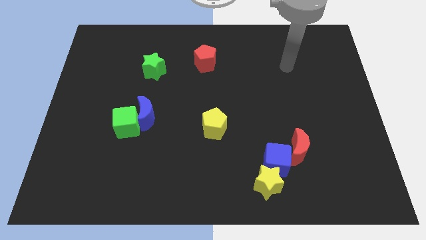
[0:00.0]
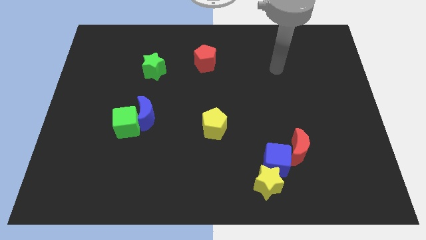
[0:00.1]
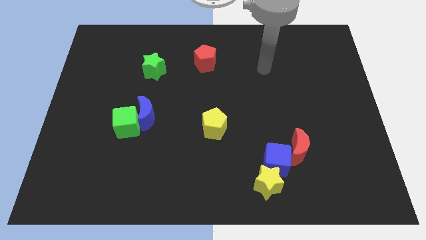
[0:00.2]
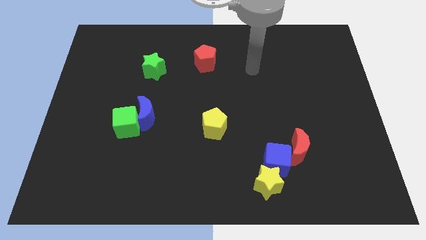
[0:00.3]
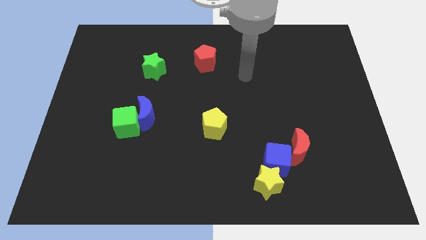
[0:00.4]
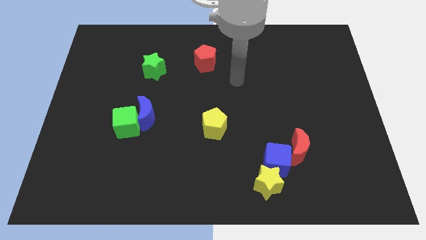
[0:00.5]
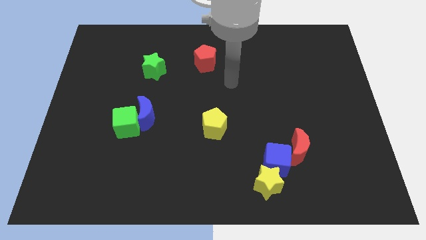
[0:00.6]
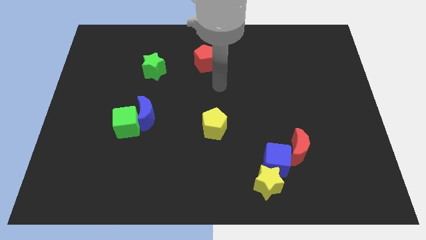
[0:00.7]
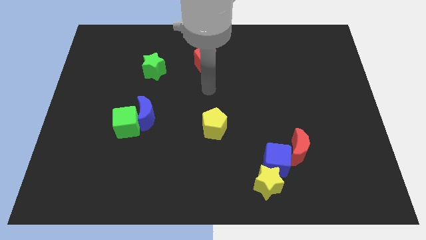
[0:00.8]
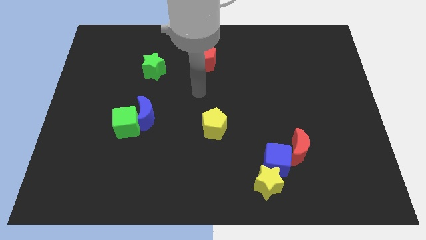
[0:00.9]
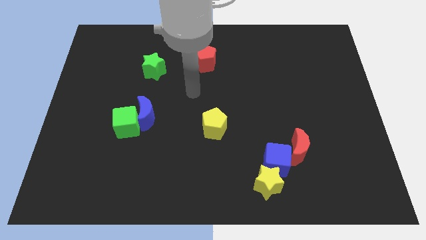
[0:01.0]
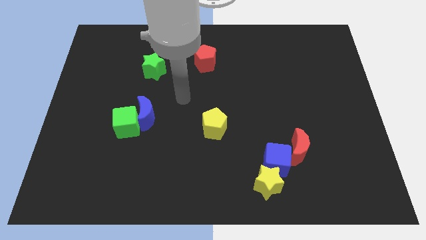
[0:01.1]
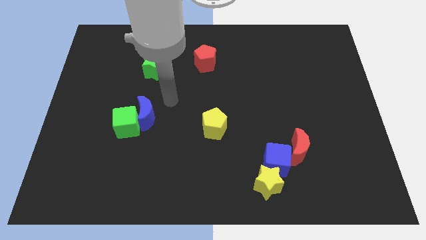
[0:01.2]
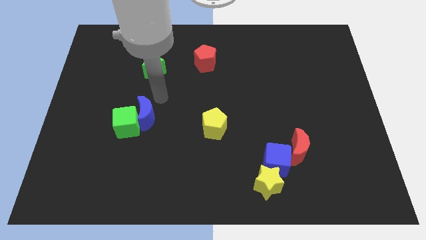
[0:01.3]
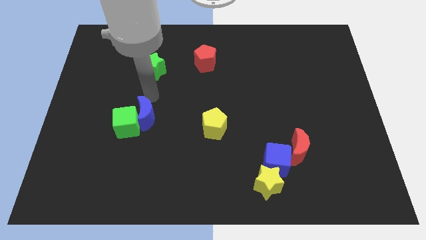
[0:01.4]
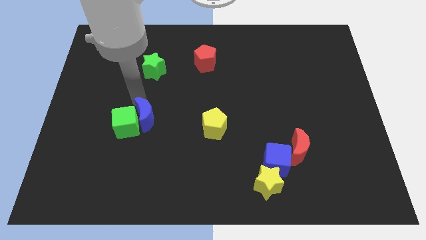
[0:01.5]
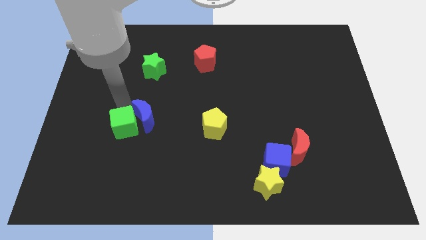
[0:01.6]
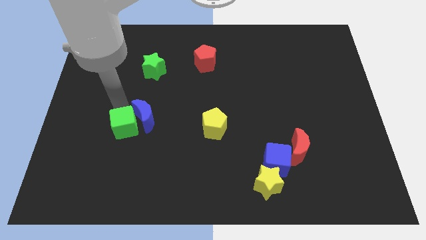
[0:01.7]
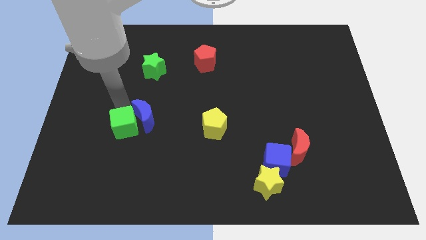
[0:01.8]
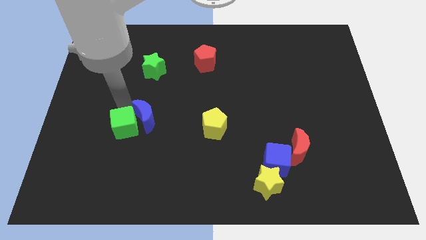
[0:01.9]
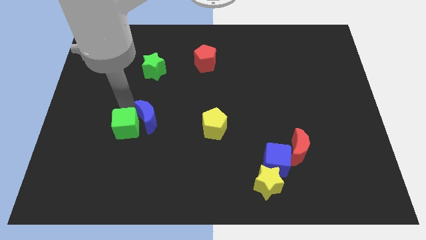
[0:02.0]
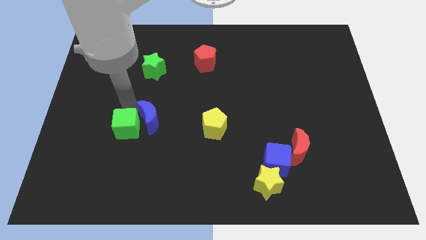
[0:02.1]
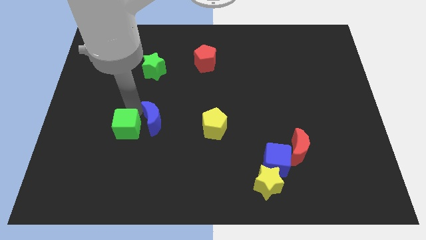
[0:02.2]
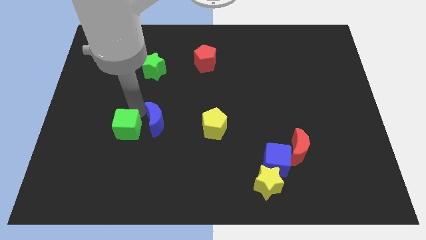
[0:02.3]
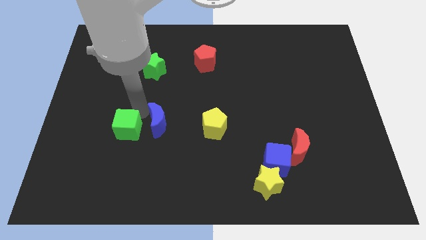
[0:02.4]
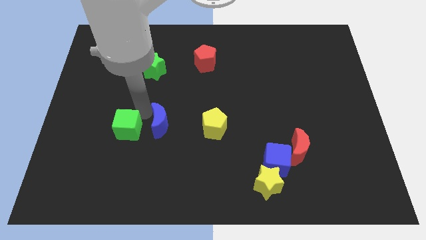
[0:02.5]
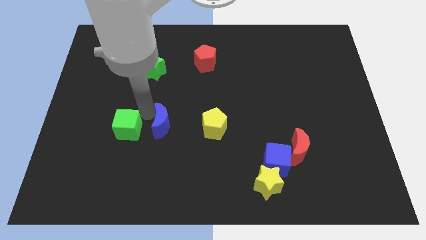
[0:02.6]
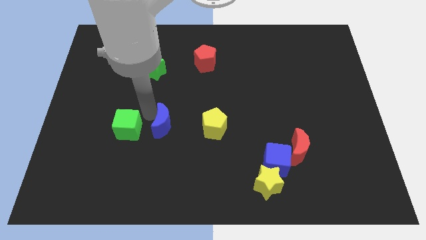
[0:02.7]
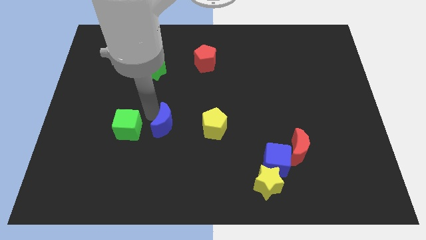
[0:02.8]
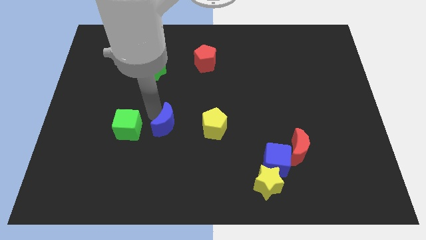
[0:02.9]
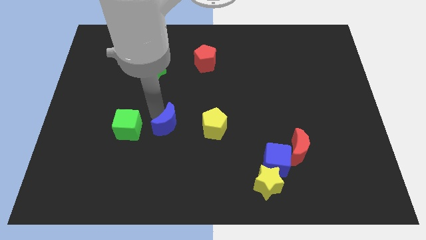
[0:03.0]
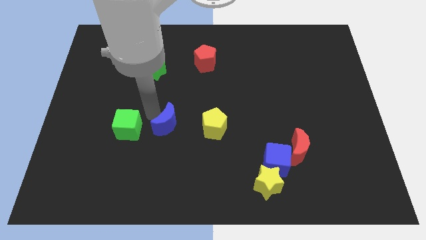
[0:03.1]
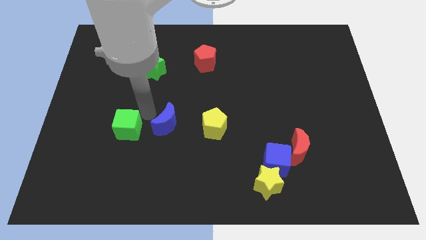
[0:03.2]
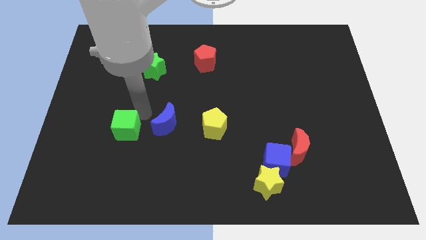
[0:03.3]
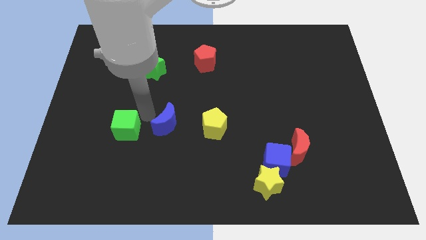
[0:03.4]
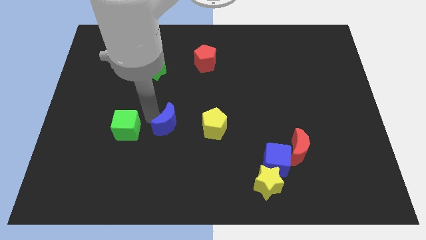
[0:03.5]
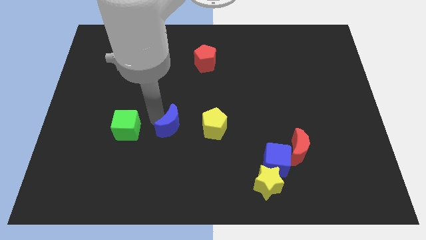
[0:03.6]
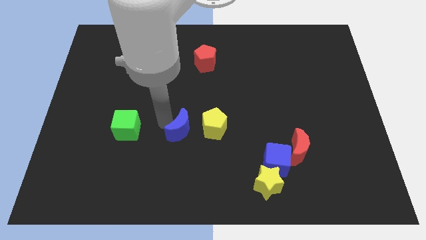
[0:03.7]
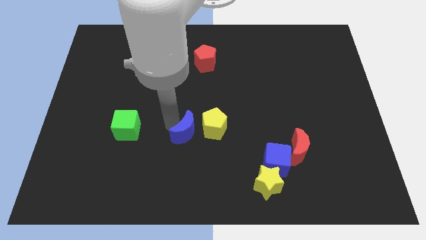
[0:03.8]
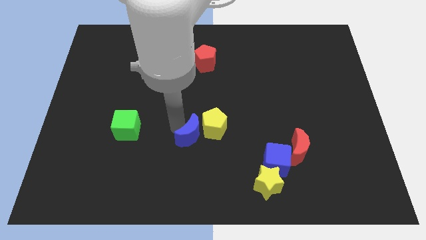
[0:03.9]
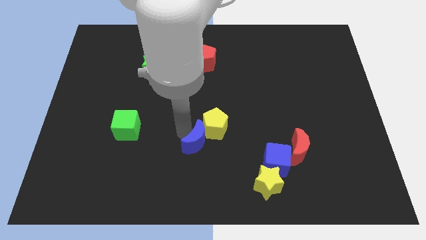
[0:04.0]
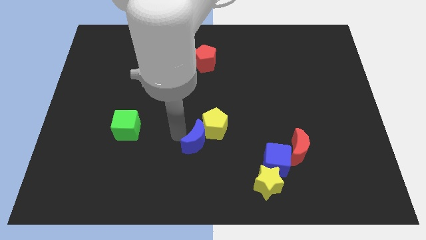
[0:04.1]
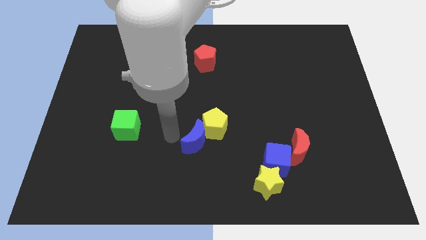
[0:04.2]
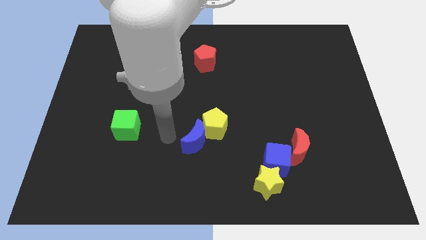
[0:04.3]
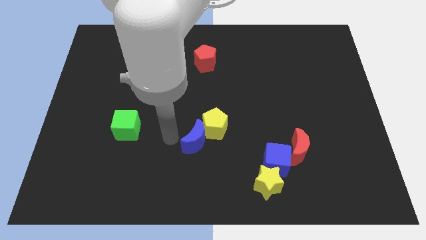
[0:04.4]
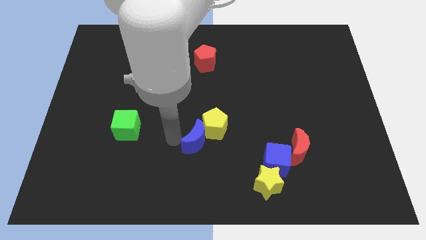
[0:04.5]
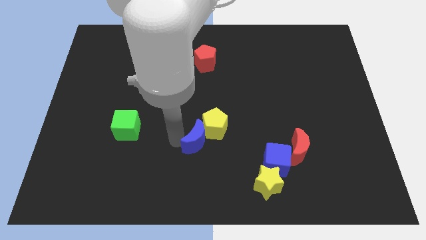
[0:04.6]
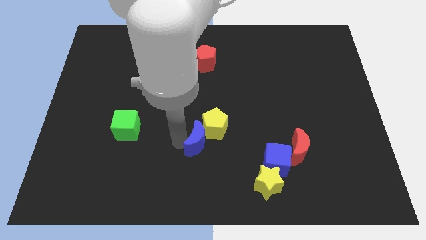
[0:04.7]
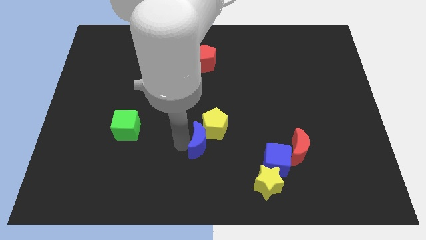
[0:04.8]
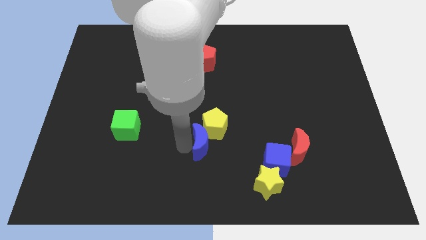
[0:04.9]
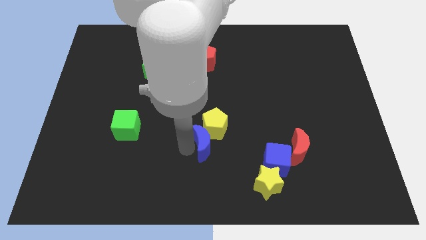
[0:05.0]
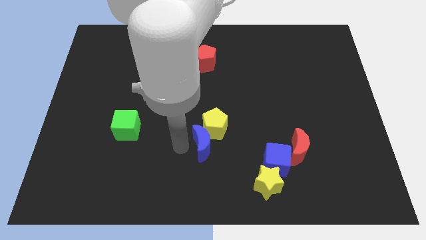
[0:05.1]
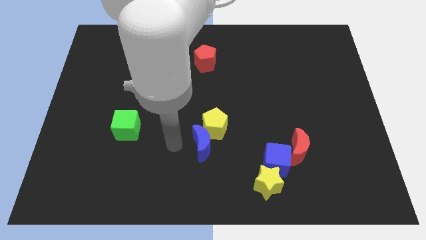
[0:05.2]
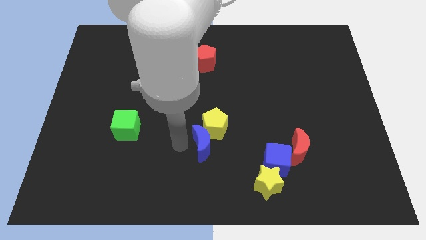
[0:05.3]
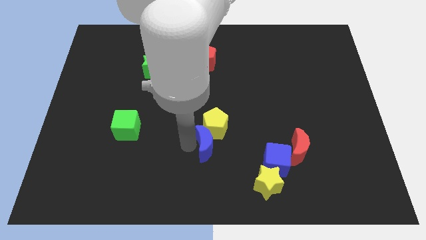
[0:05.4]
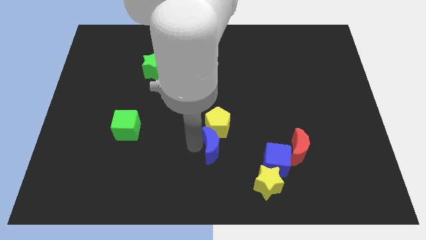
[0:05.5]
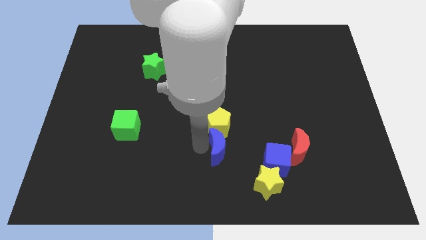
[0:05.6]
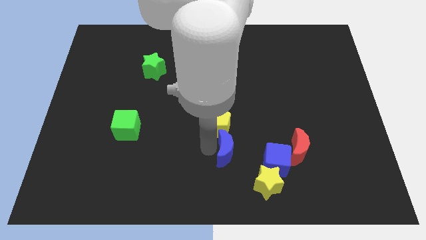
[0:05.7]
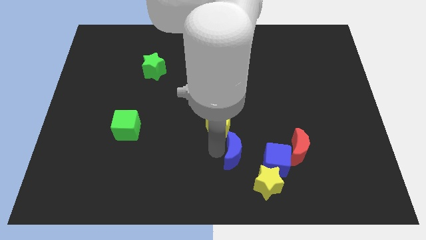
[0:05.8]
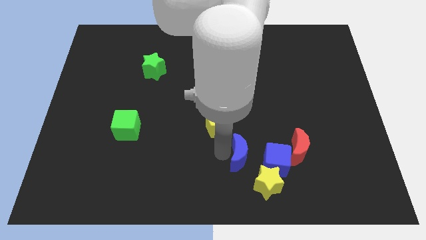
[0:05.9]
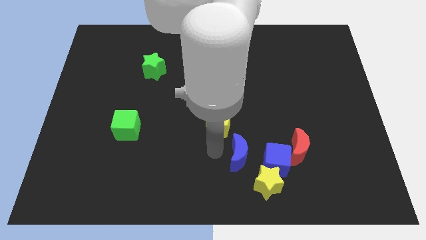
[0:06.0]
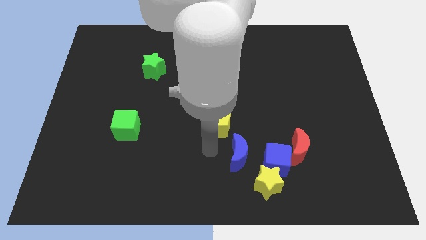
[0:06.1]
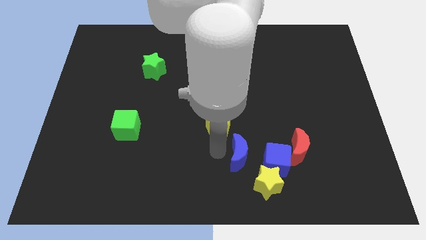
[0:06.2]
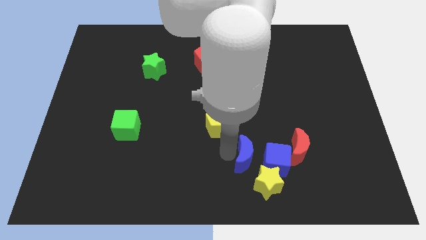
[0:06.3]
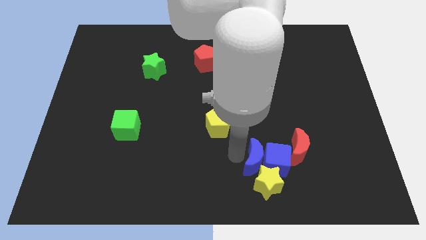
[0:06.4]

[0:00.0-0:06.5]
move the blue moon next to the blue cube
